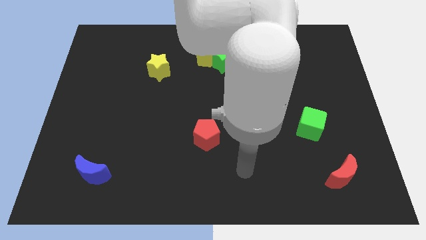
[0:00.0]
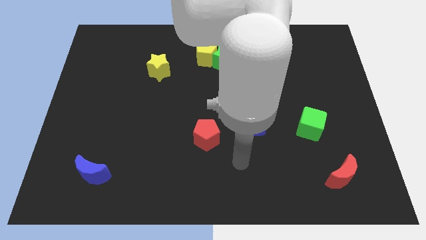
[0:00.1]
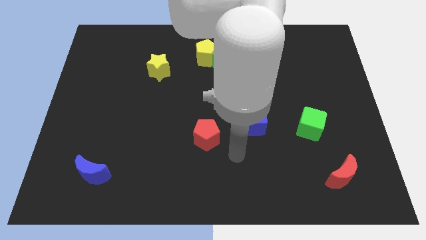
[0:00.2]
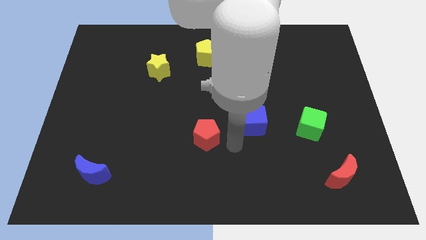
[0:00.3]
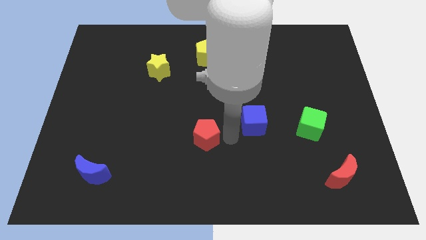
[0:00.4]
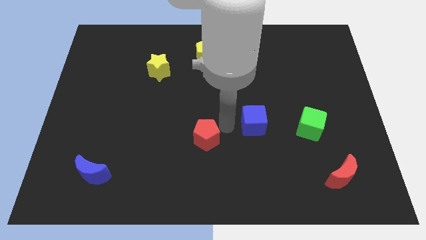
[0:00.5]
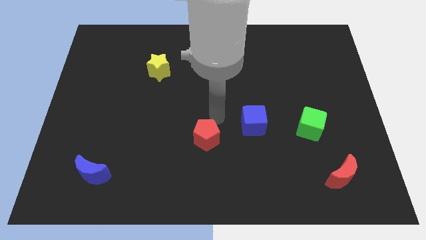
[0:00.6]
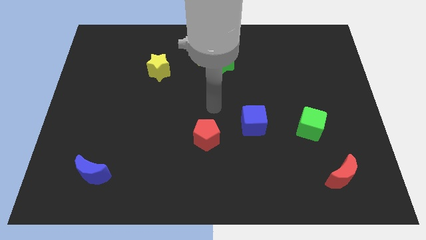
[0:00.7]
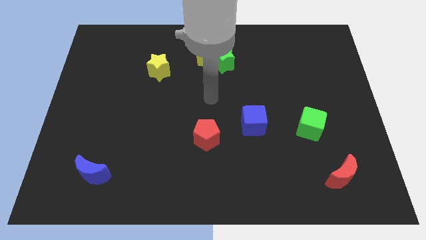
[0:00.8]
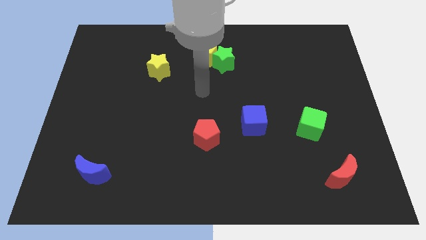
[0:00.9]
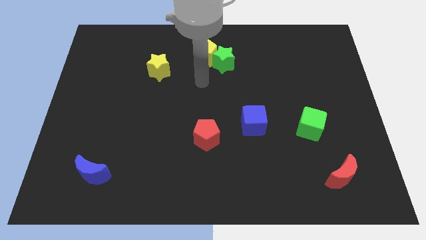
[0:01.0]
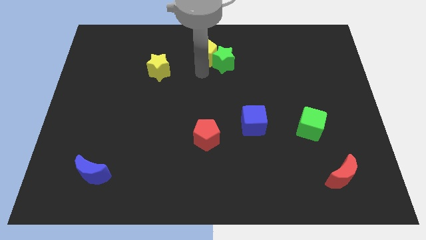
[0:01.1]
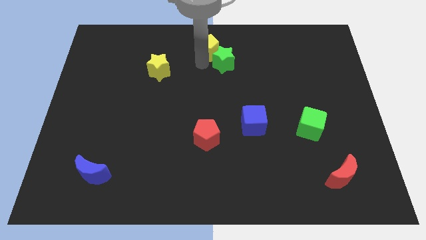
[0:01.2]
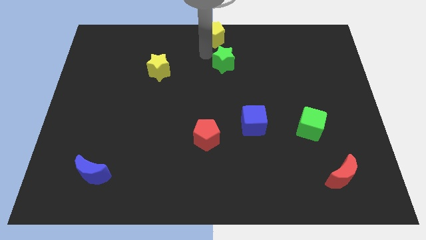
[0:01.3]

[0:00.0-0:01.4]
move the green star away from the yellow pentagon

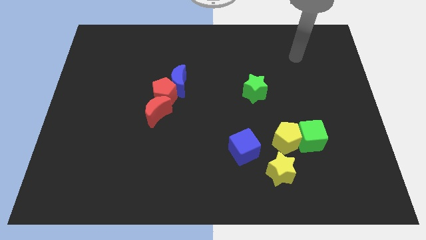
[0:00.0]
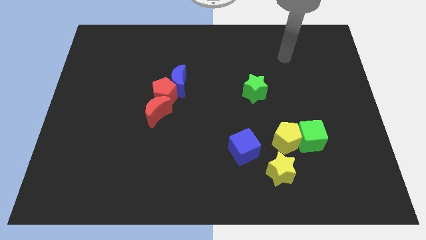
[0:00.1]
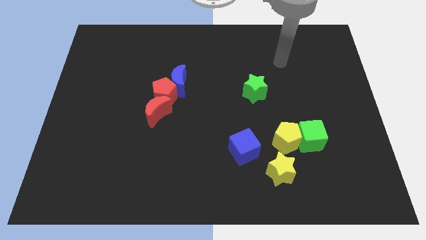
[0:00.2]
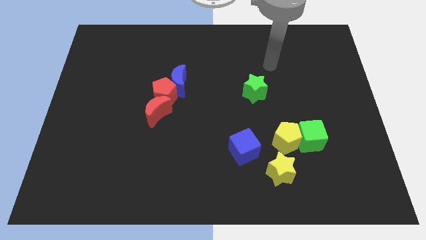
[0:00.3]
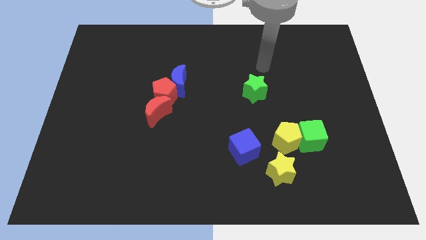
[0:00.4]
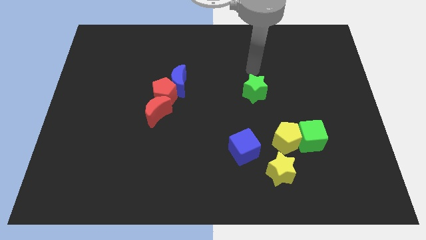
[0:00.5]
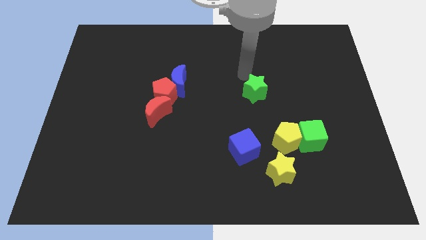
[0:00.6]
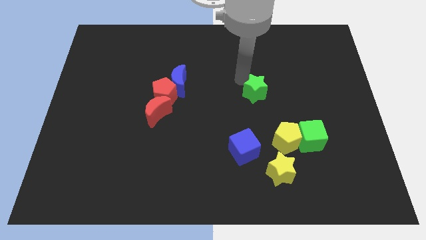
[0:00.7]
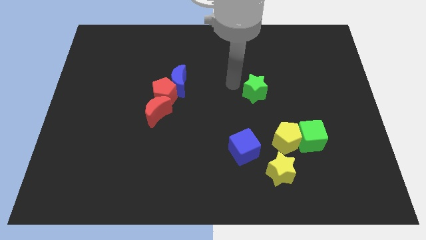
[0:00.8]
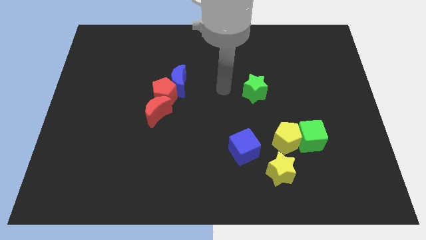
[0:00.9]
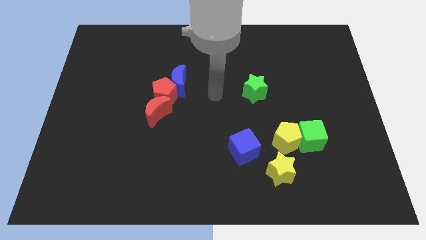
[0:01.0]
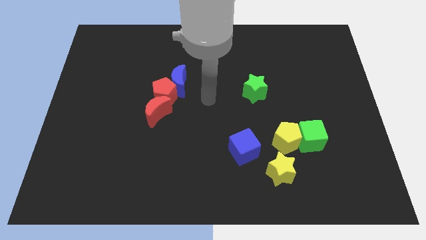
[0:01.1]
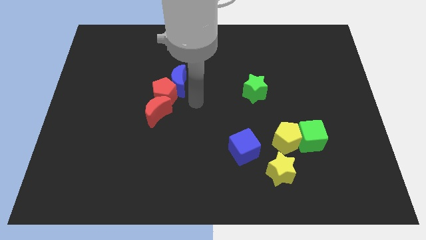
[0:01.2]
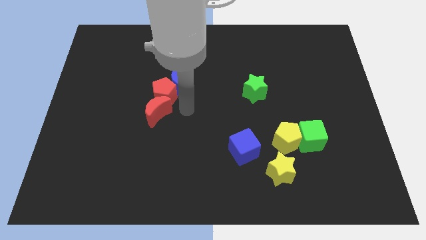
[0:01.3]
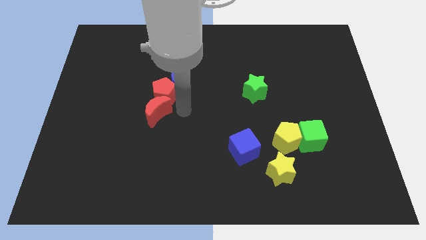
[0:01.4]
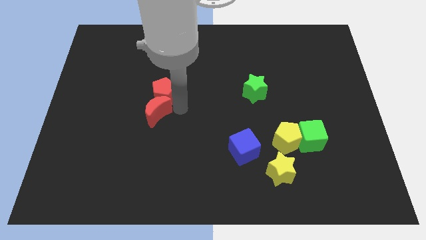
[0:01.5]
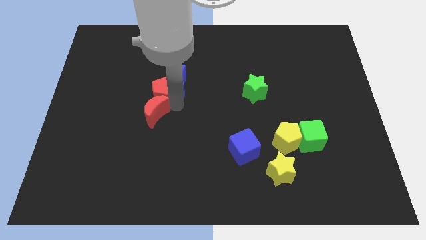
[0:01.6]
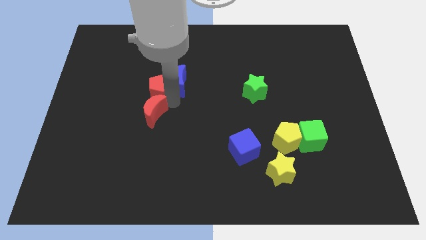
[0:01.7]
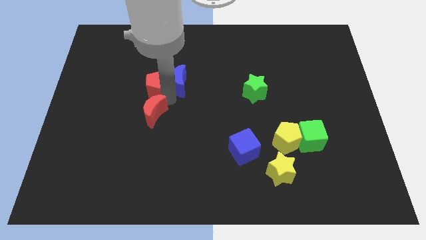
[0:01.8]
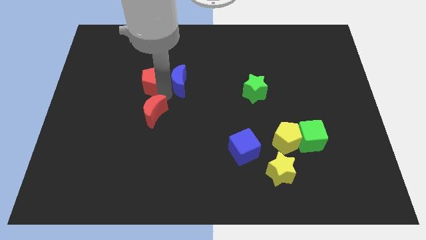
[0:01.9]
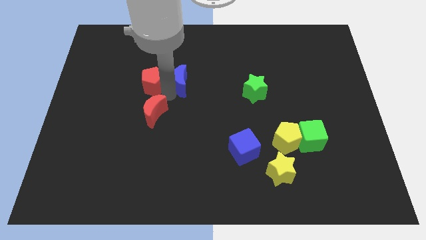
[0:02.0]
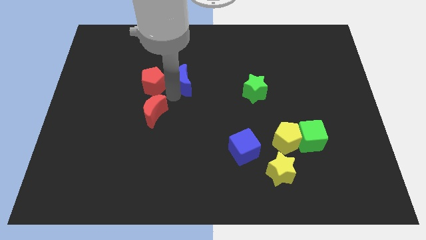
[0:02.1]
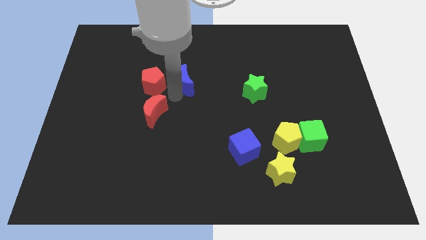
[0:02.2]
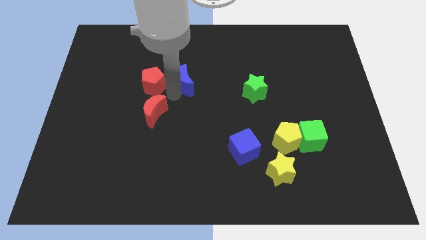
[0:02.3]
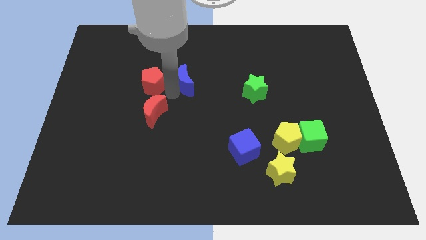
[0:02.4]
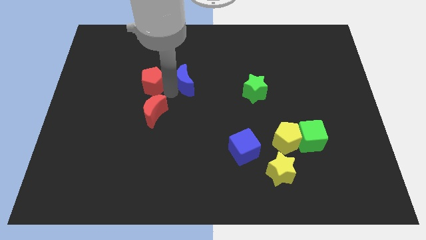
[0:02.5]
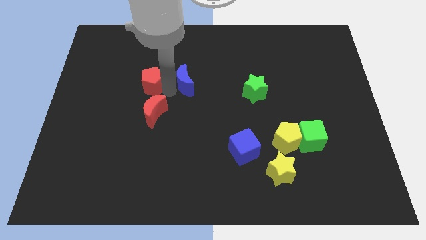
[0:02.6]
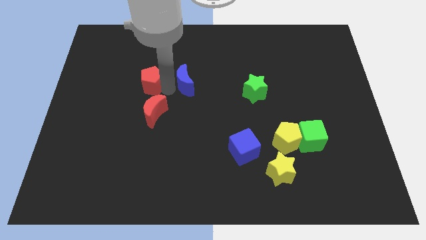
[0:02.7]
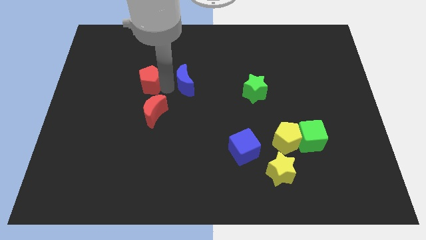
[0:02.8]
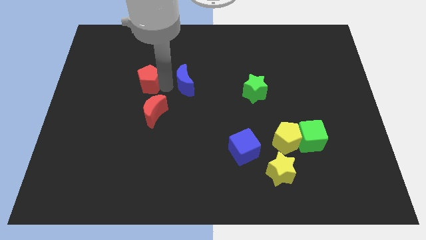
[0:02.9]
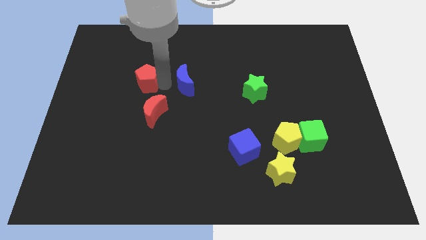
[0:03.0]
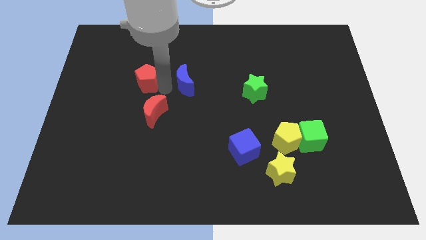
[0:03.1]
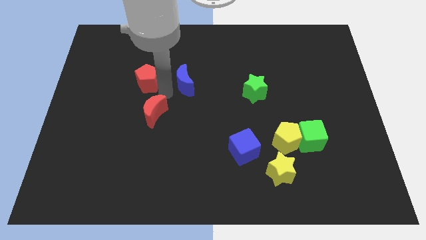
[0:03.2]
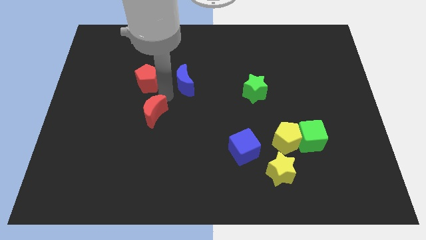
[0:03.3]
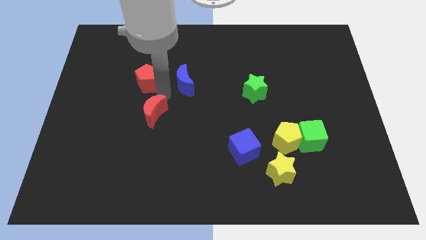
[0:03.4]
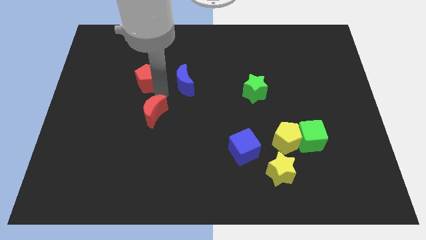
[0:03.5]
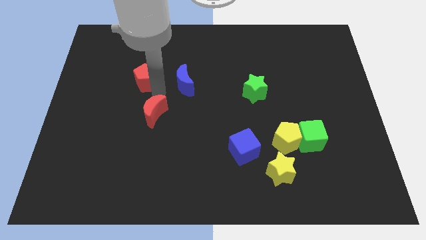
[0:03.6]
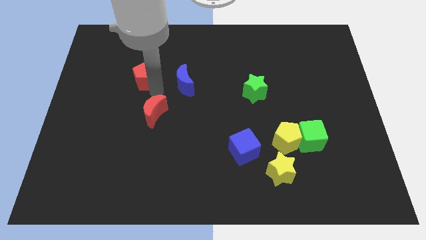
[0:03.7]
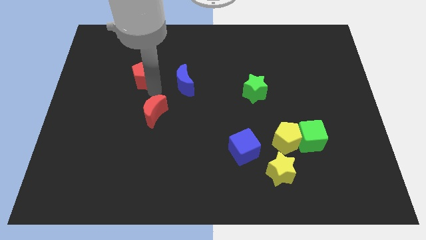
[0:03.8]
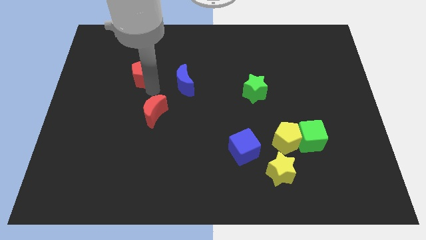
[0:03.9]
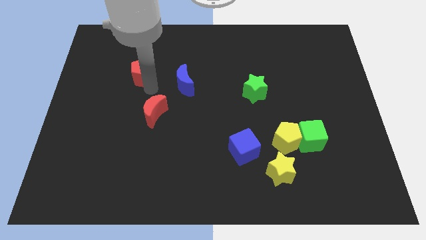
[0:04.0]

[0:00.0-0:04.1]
separate the red pentagon from the blue moon and red moon

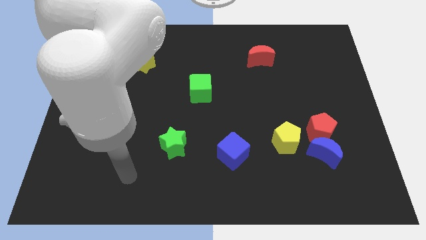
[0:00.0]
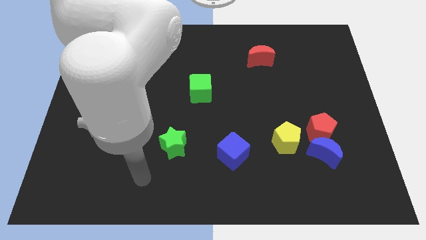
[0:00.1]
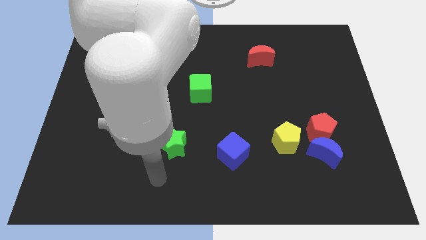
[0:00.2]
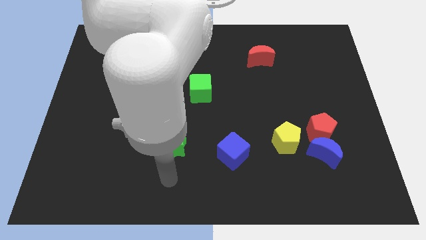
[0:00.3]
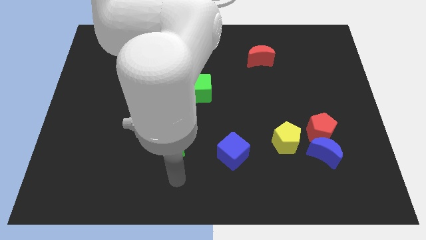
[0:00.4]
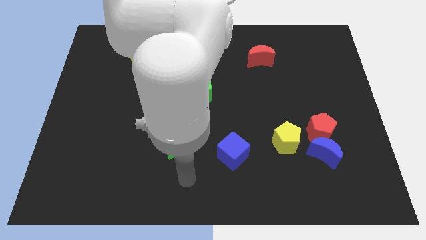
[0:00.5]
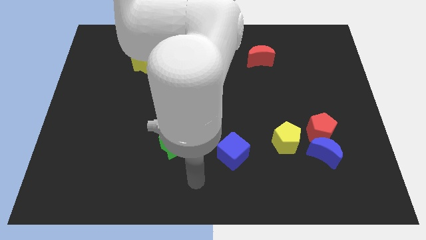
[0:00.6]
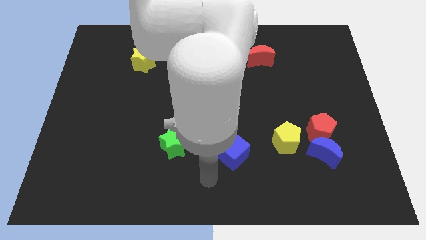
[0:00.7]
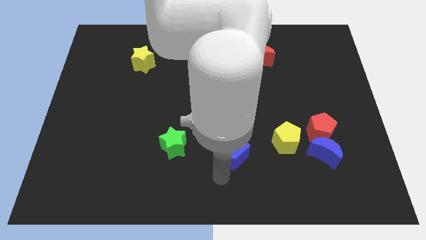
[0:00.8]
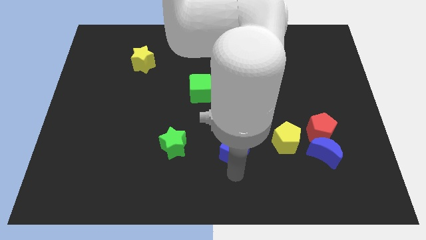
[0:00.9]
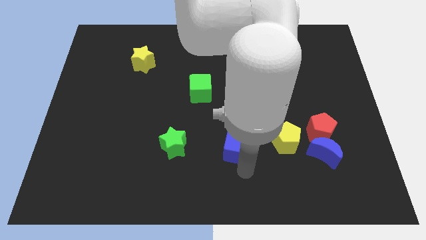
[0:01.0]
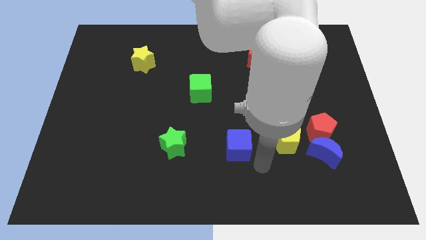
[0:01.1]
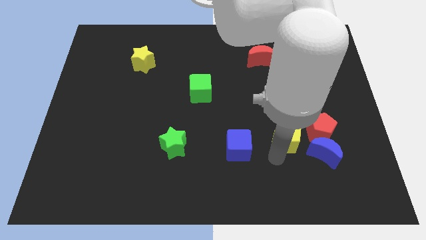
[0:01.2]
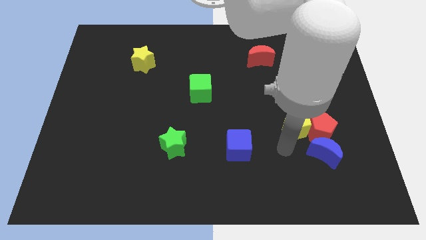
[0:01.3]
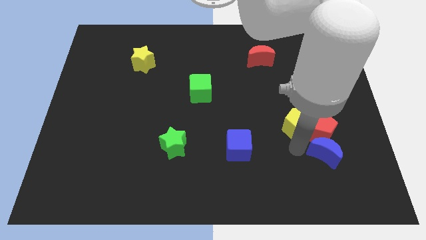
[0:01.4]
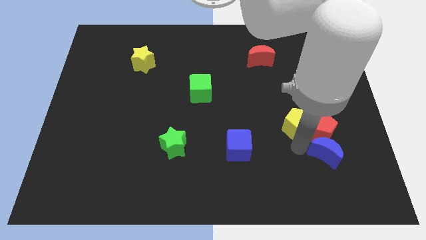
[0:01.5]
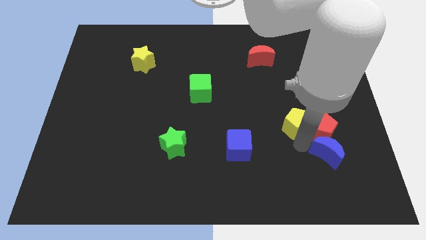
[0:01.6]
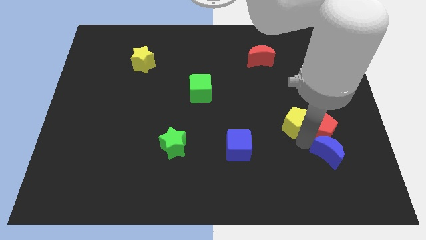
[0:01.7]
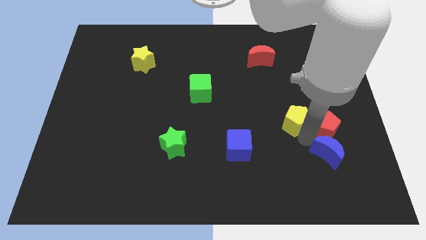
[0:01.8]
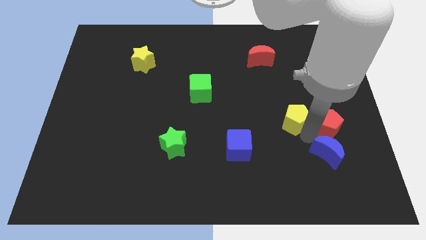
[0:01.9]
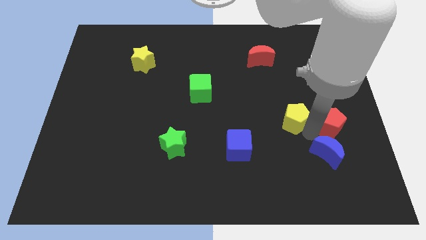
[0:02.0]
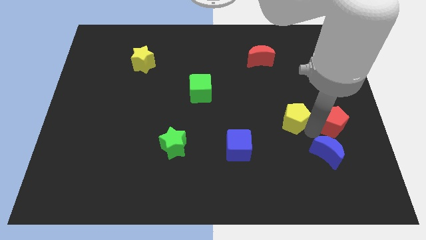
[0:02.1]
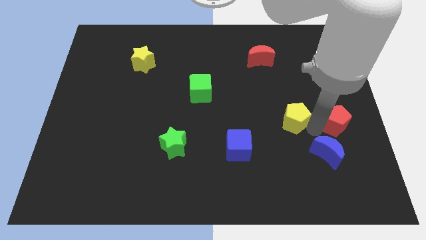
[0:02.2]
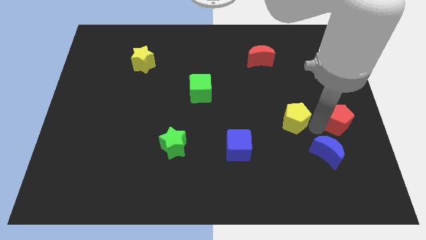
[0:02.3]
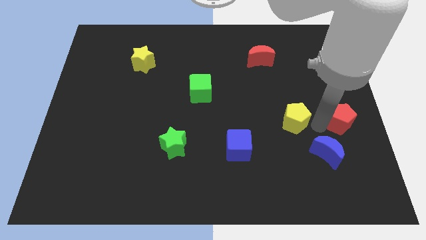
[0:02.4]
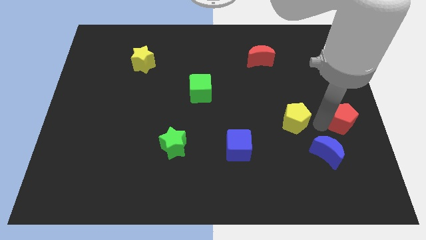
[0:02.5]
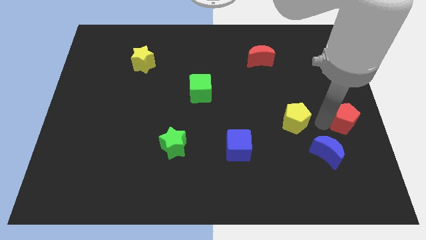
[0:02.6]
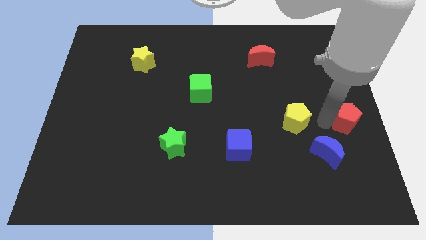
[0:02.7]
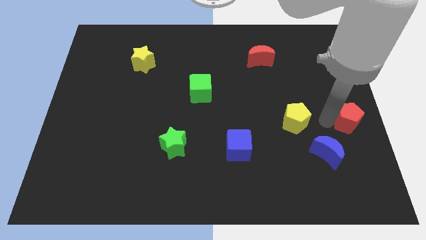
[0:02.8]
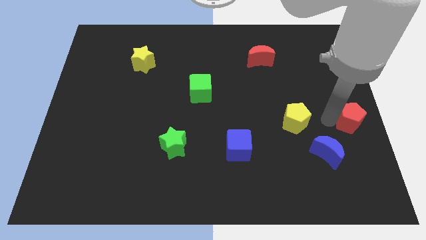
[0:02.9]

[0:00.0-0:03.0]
pull the red pentagon apart from the blue moon and yellow pentagon

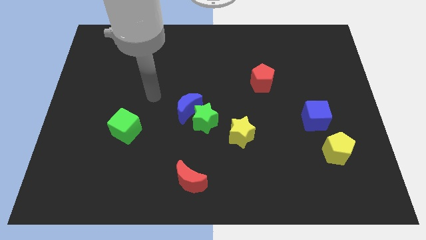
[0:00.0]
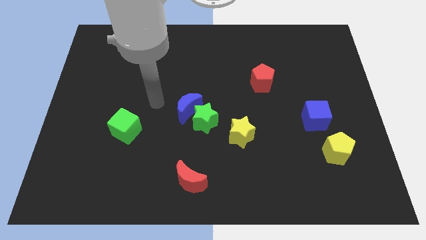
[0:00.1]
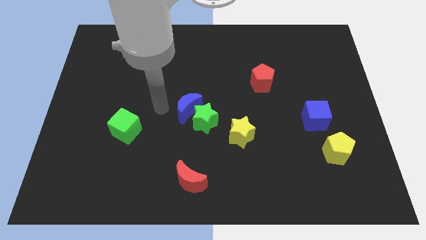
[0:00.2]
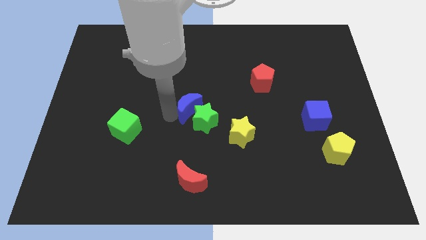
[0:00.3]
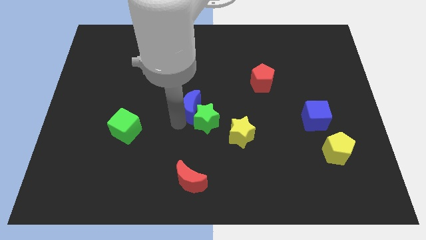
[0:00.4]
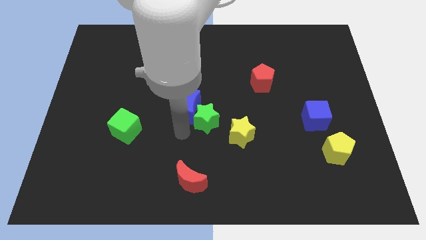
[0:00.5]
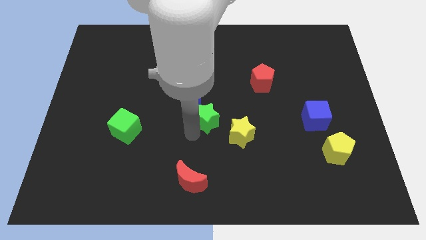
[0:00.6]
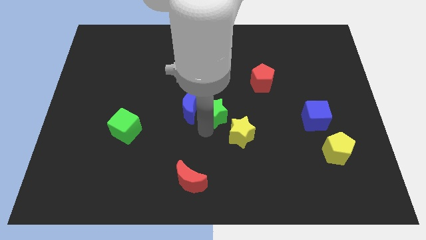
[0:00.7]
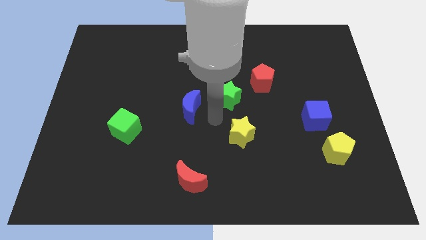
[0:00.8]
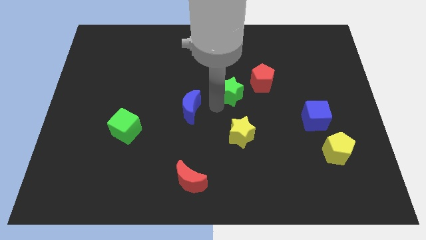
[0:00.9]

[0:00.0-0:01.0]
pull the blue moon apart from the green star
